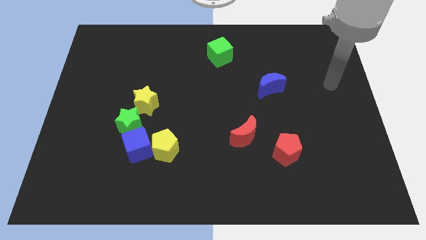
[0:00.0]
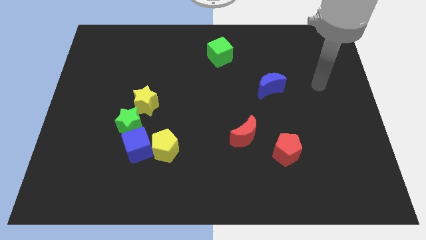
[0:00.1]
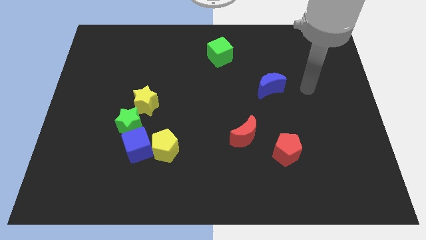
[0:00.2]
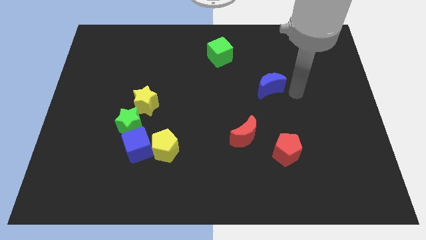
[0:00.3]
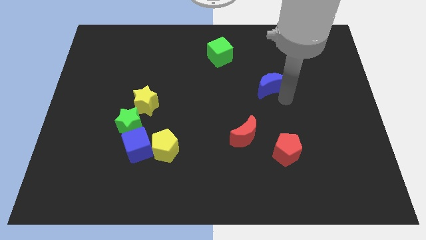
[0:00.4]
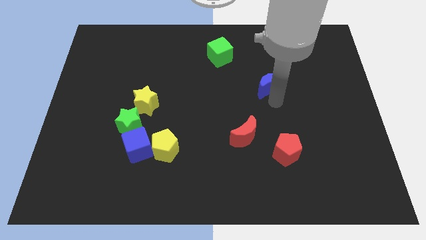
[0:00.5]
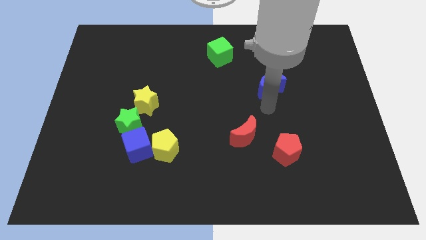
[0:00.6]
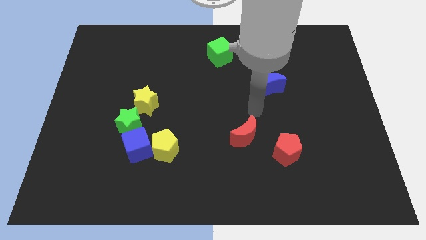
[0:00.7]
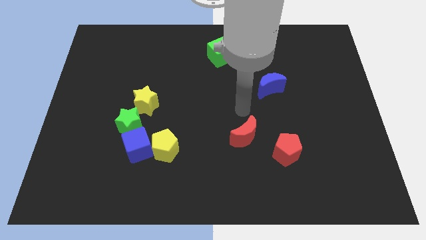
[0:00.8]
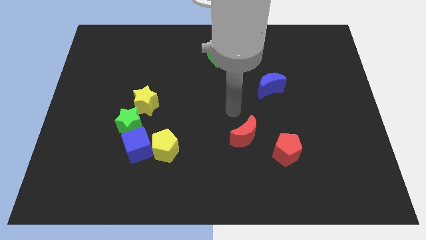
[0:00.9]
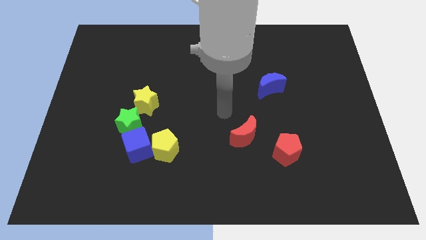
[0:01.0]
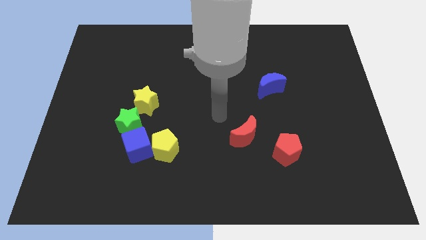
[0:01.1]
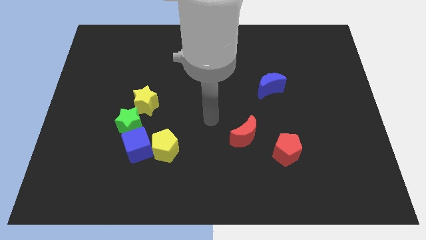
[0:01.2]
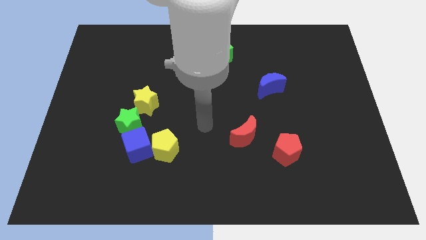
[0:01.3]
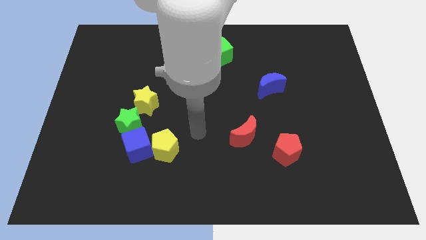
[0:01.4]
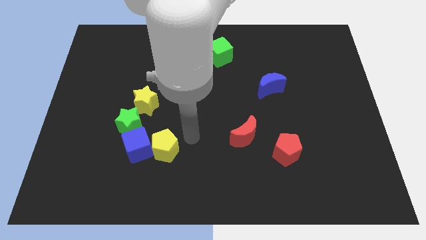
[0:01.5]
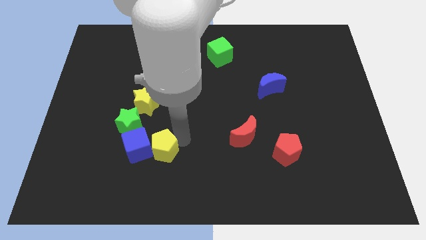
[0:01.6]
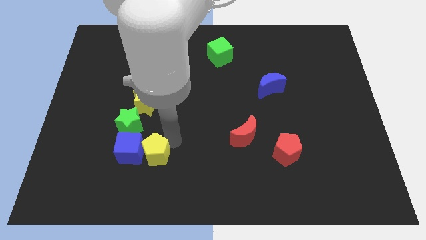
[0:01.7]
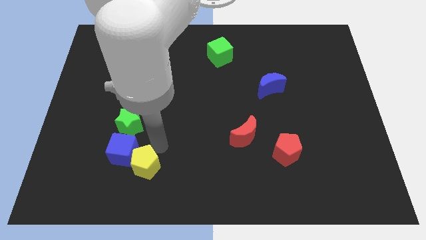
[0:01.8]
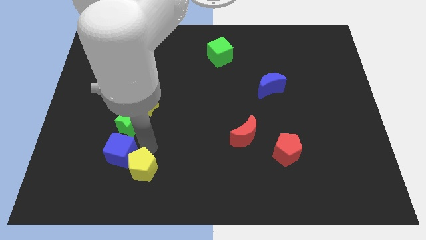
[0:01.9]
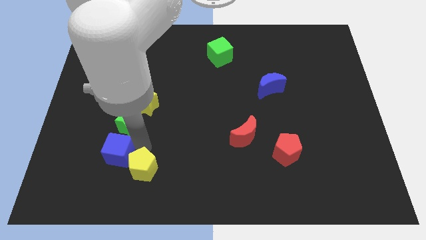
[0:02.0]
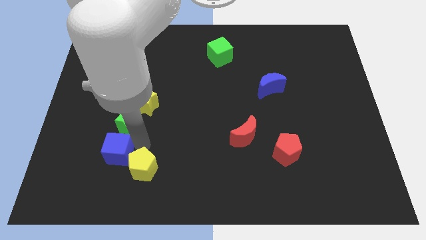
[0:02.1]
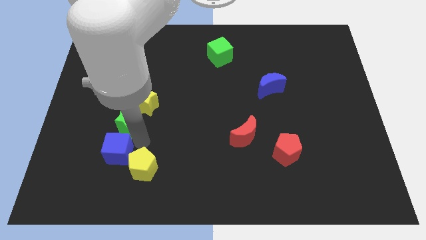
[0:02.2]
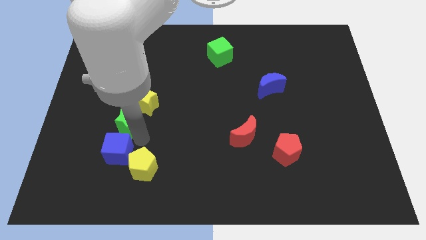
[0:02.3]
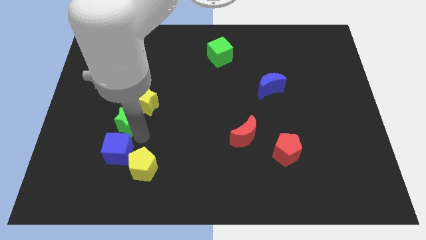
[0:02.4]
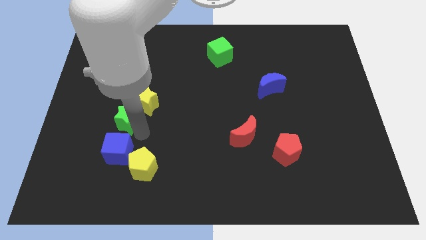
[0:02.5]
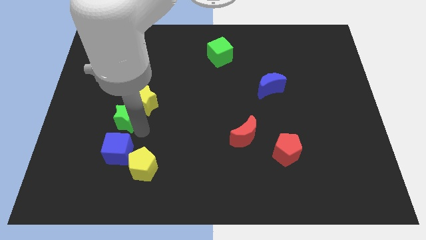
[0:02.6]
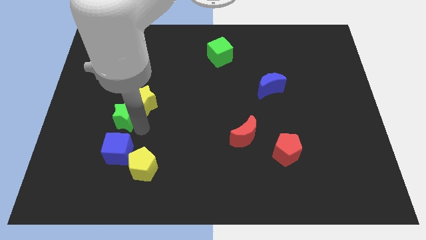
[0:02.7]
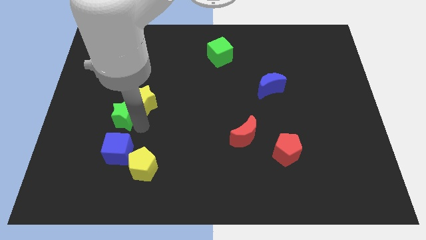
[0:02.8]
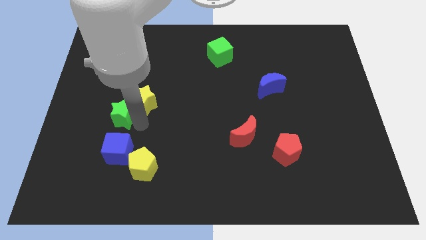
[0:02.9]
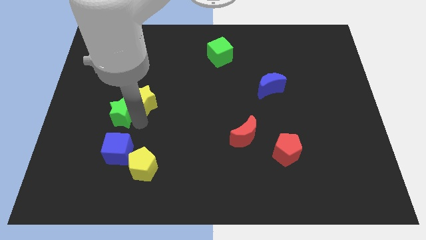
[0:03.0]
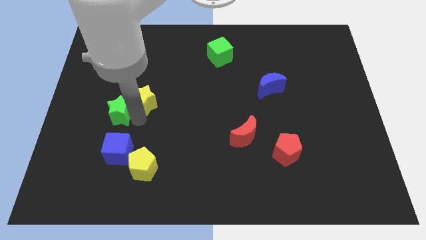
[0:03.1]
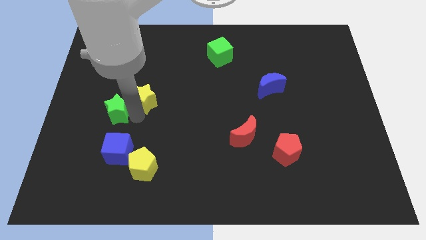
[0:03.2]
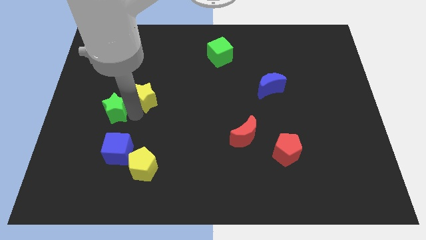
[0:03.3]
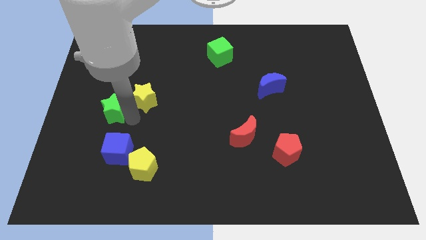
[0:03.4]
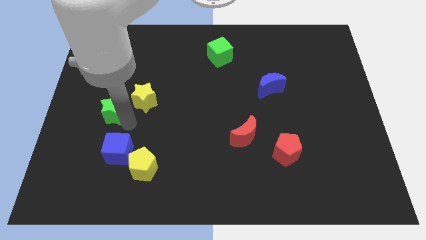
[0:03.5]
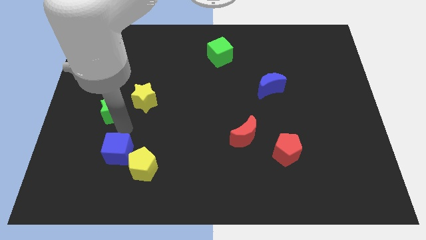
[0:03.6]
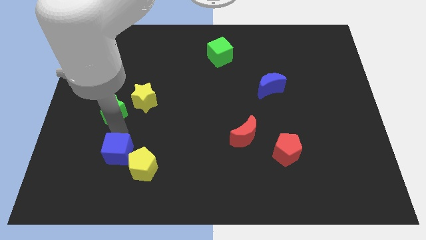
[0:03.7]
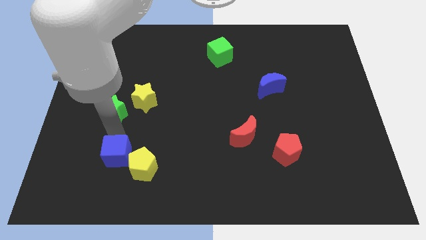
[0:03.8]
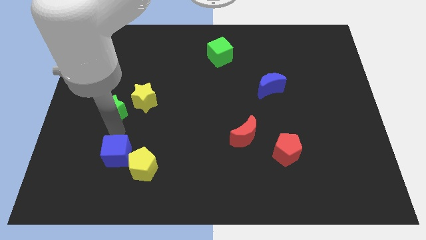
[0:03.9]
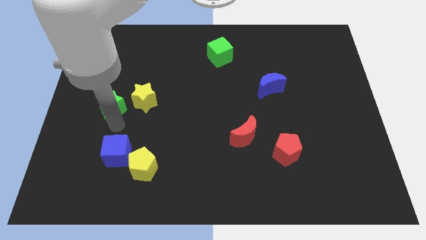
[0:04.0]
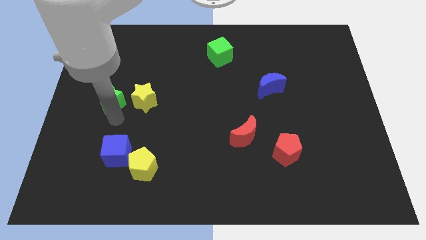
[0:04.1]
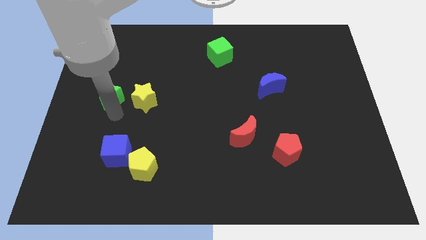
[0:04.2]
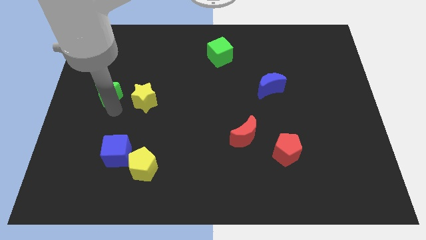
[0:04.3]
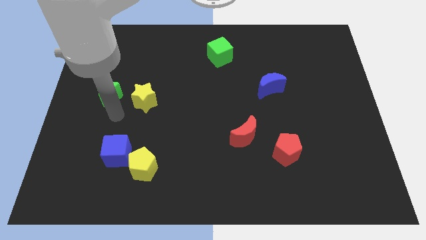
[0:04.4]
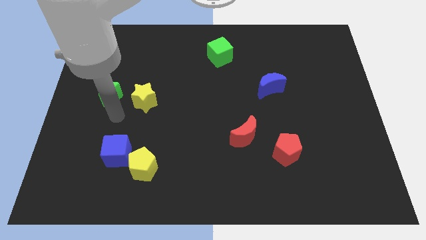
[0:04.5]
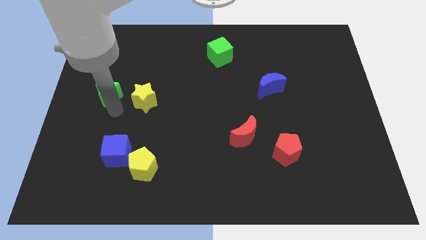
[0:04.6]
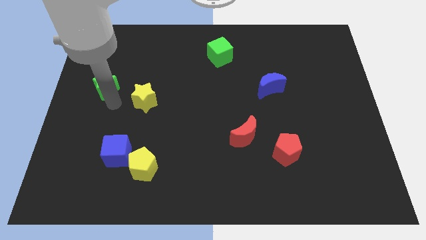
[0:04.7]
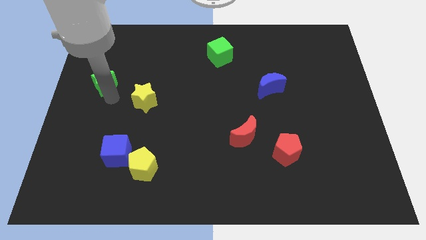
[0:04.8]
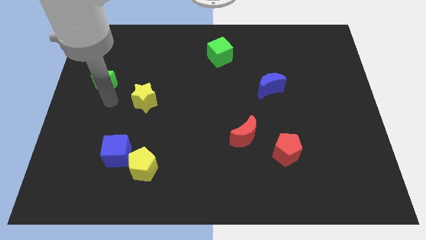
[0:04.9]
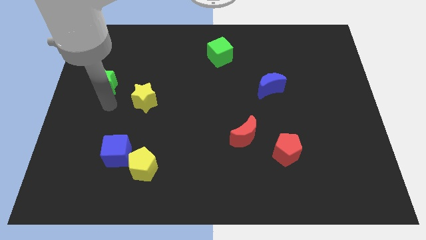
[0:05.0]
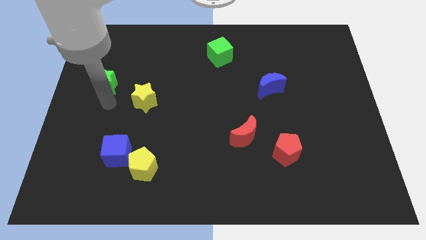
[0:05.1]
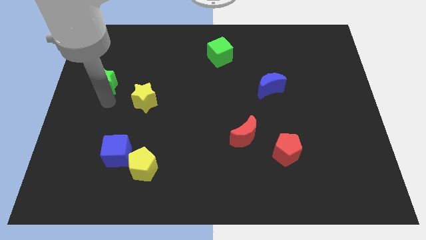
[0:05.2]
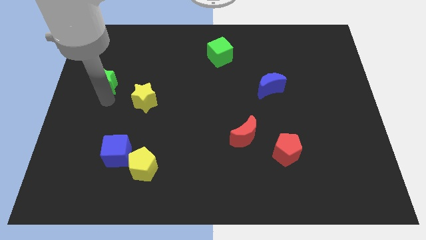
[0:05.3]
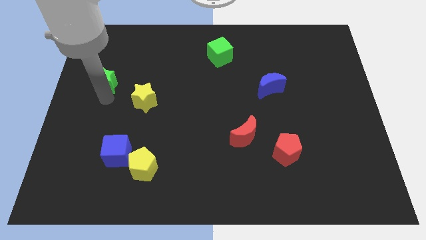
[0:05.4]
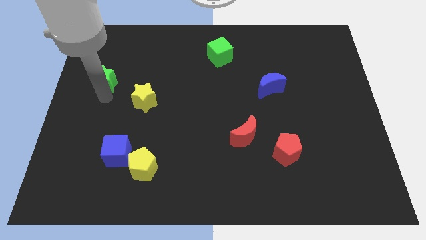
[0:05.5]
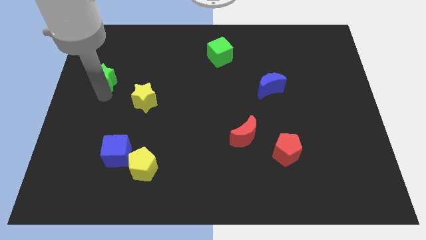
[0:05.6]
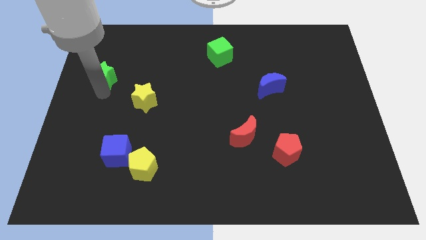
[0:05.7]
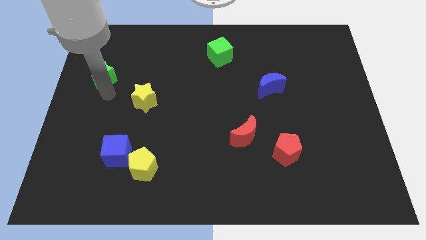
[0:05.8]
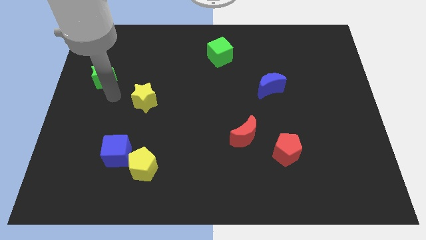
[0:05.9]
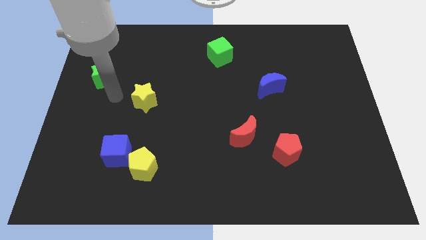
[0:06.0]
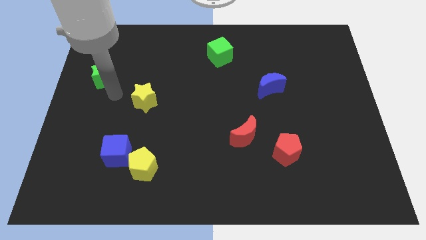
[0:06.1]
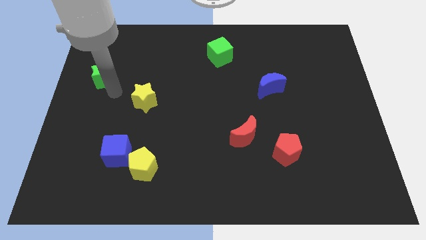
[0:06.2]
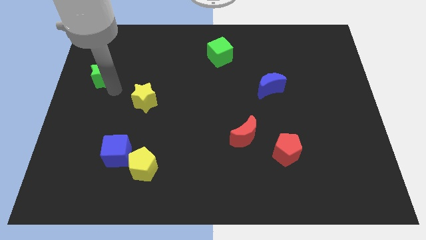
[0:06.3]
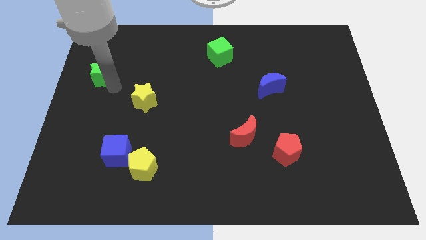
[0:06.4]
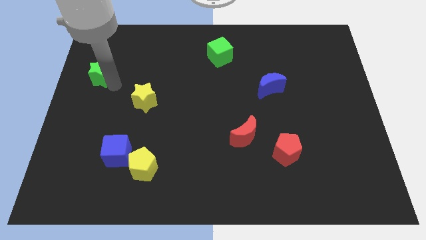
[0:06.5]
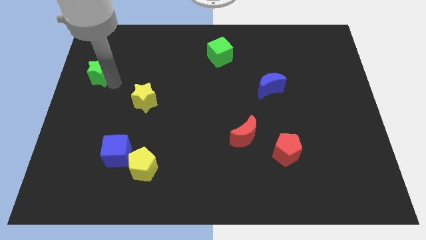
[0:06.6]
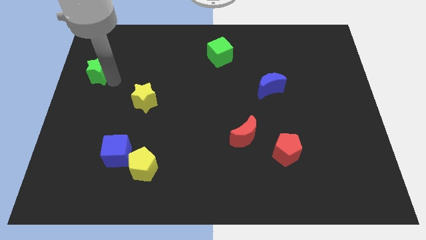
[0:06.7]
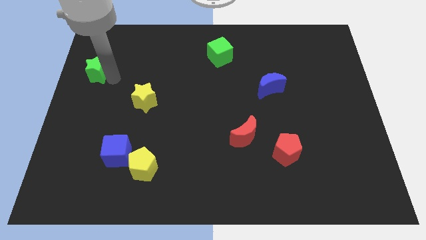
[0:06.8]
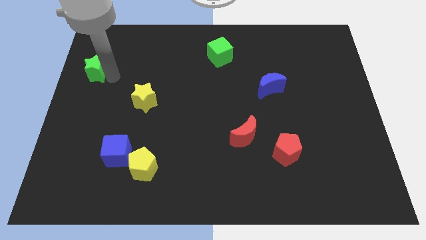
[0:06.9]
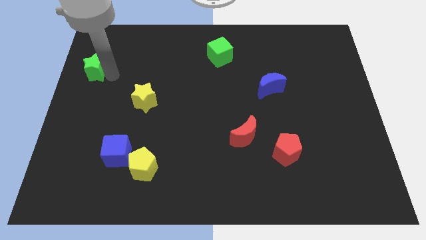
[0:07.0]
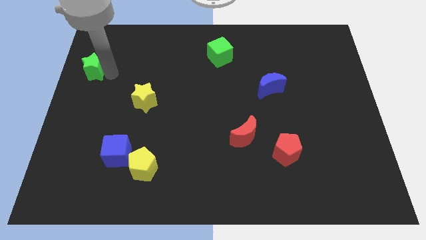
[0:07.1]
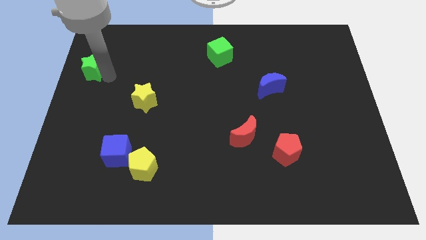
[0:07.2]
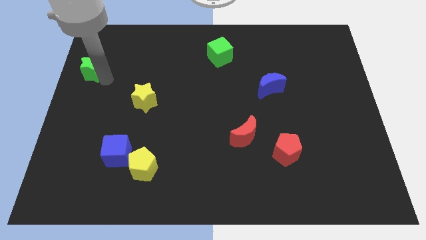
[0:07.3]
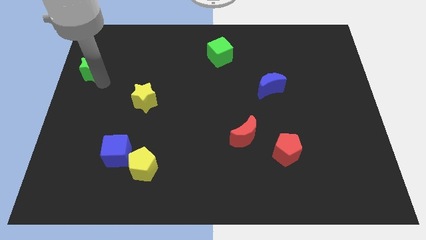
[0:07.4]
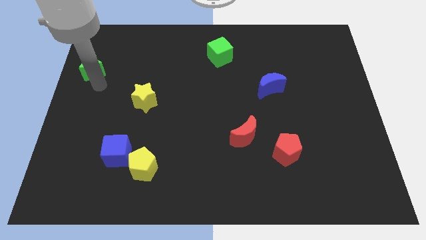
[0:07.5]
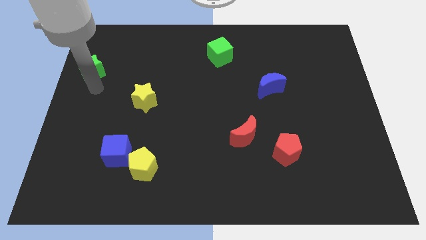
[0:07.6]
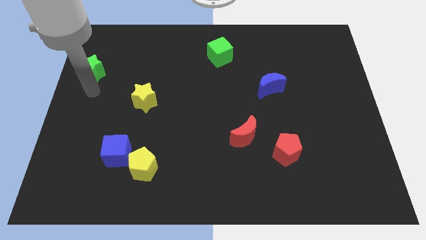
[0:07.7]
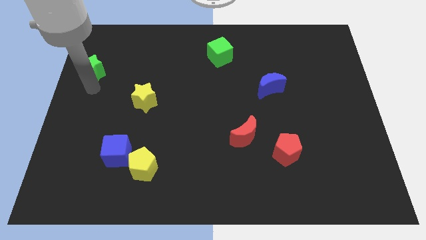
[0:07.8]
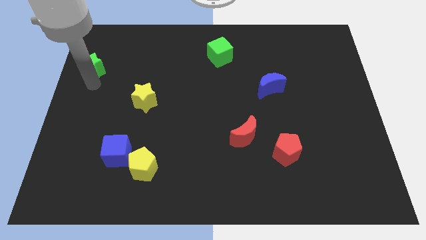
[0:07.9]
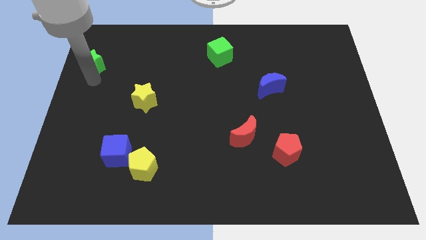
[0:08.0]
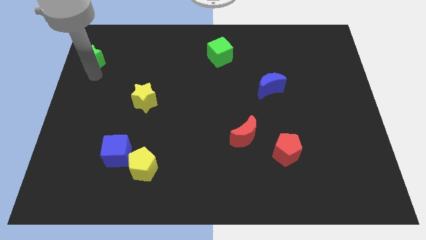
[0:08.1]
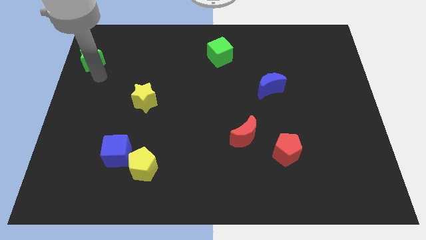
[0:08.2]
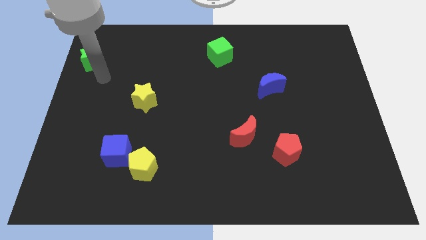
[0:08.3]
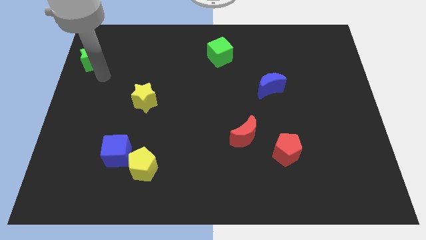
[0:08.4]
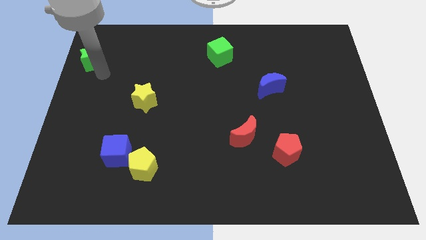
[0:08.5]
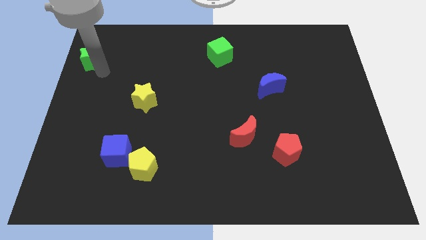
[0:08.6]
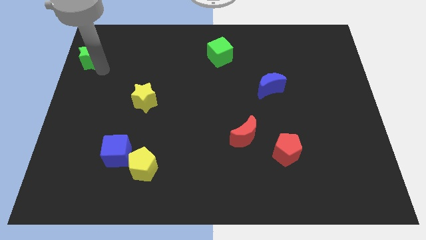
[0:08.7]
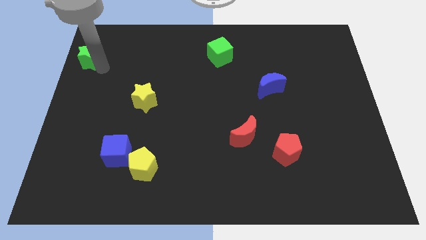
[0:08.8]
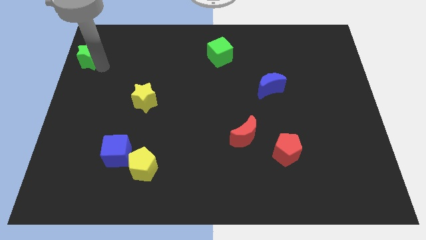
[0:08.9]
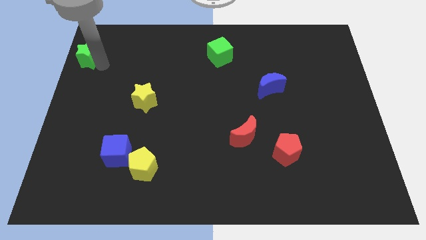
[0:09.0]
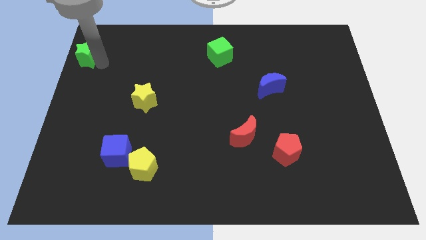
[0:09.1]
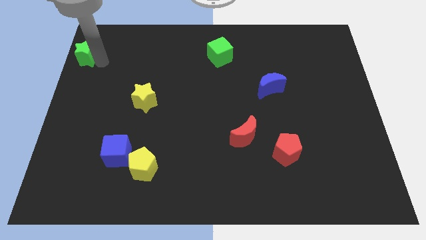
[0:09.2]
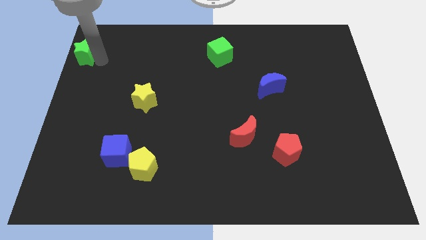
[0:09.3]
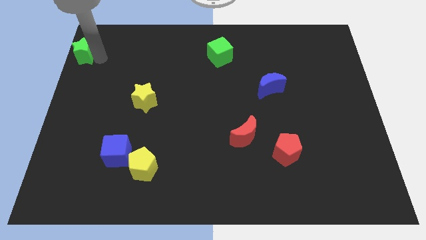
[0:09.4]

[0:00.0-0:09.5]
put the green star to the top left corner
